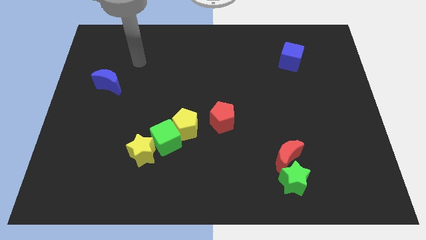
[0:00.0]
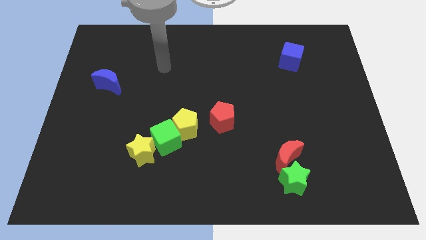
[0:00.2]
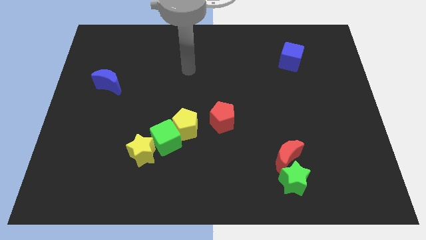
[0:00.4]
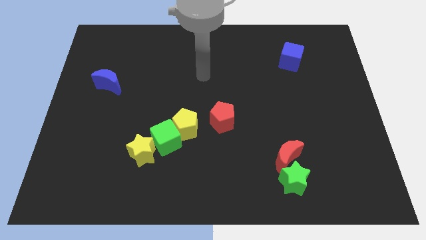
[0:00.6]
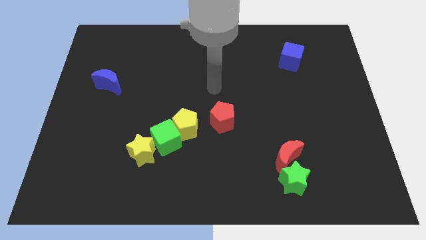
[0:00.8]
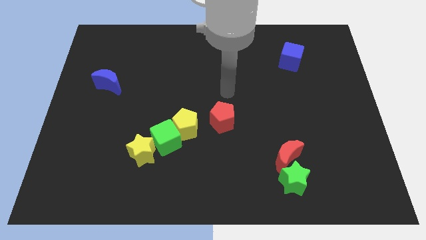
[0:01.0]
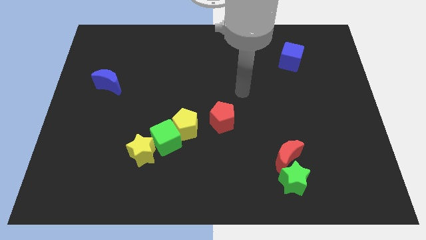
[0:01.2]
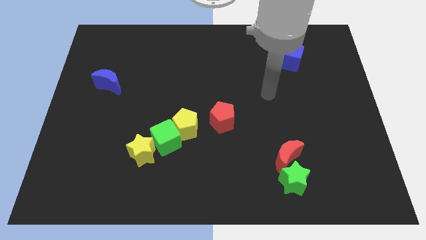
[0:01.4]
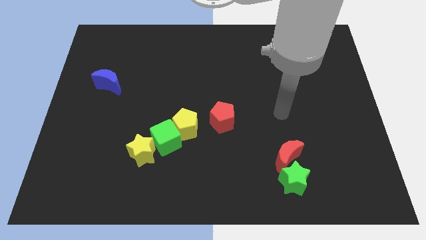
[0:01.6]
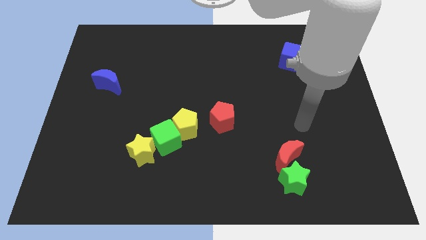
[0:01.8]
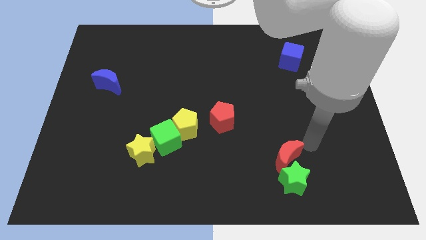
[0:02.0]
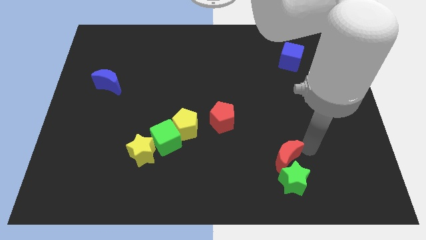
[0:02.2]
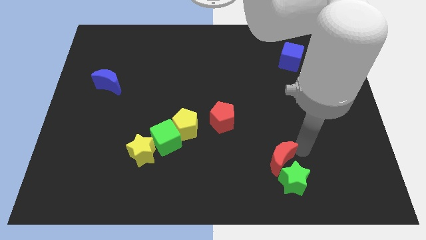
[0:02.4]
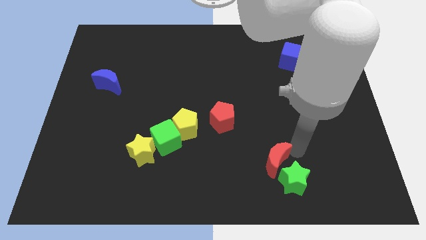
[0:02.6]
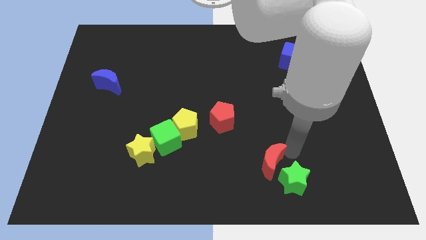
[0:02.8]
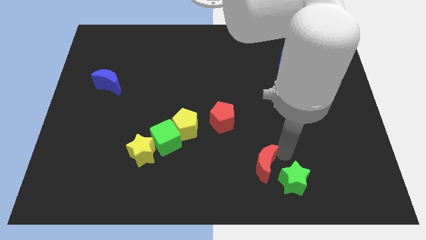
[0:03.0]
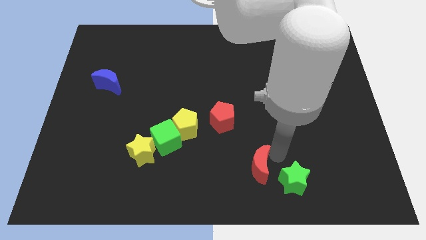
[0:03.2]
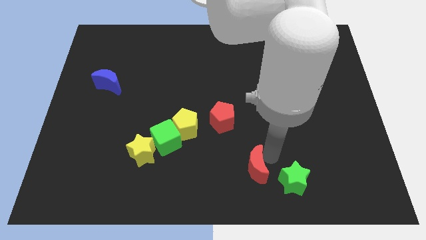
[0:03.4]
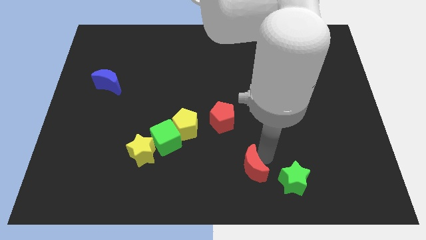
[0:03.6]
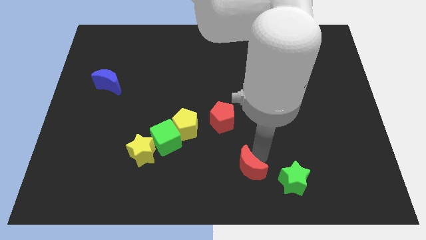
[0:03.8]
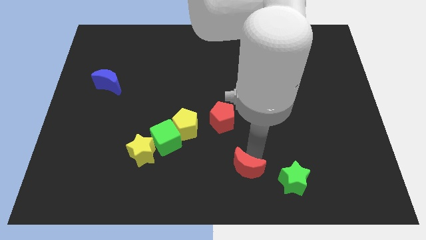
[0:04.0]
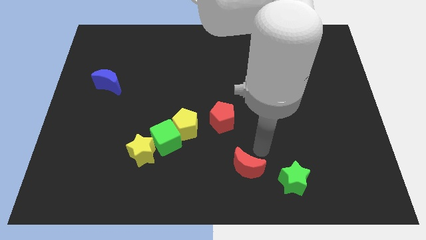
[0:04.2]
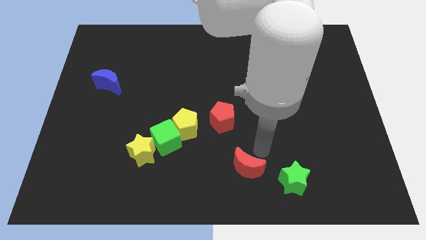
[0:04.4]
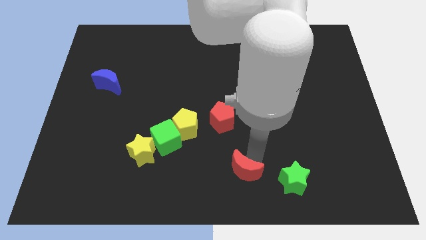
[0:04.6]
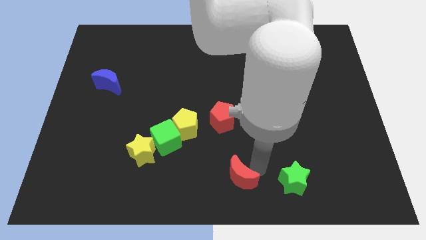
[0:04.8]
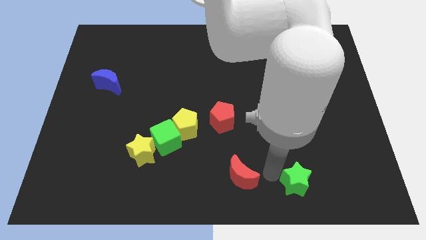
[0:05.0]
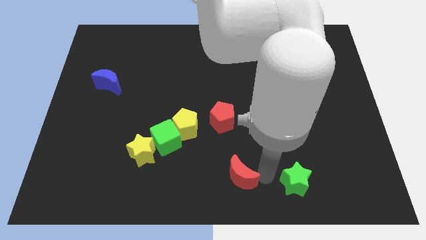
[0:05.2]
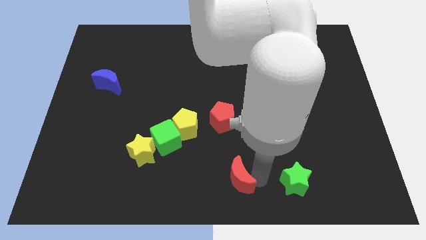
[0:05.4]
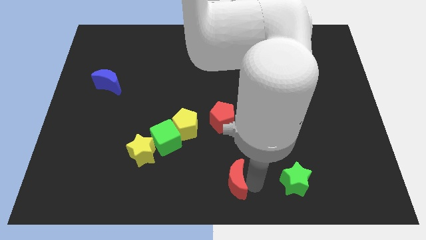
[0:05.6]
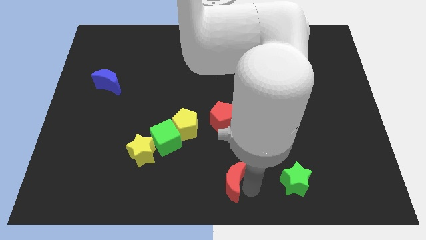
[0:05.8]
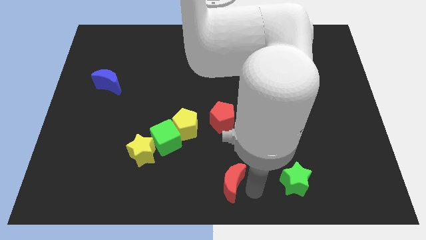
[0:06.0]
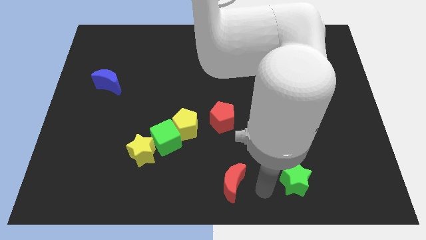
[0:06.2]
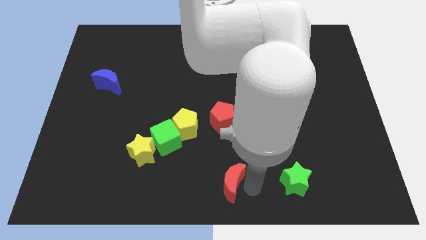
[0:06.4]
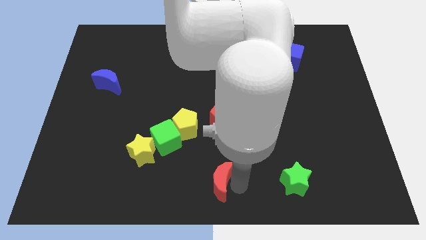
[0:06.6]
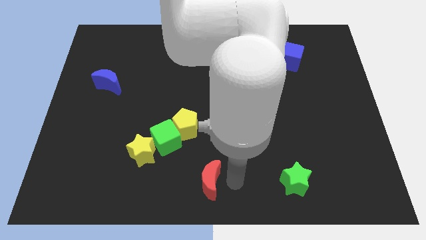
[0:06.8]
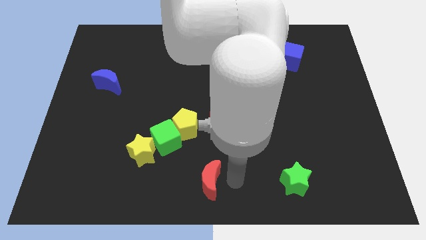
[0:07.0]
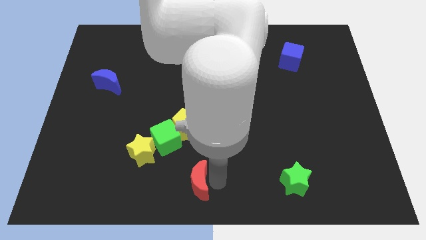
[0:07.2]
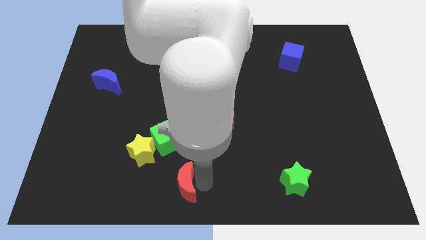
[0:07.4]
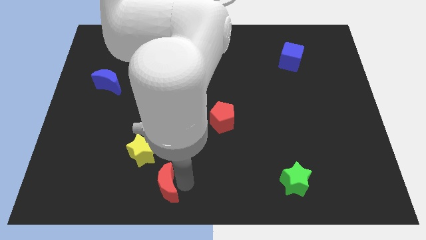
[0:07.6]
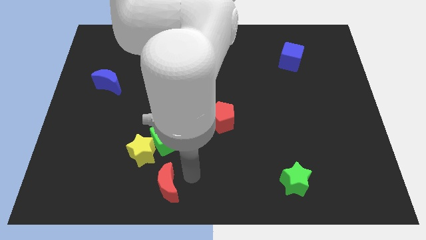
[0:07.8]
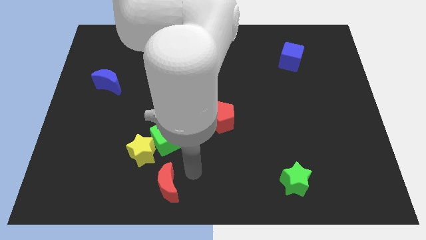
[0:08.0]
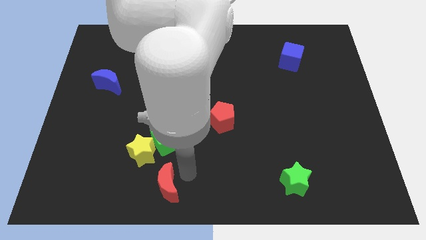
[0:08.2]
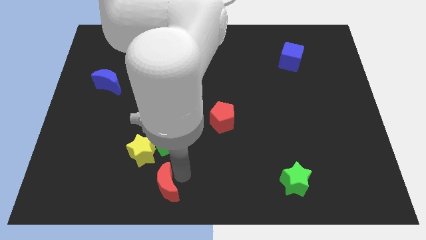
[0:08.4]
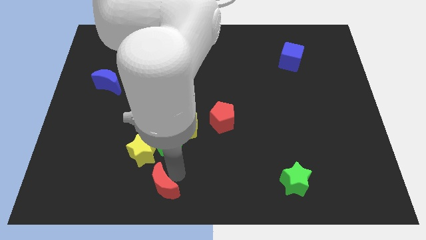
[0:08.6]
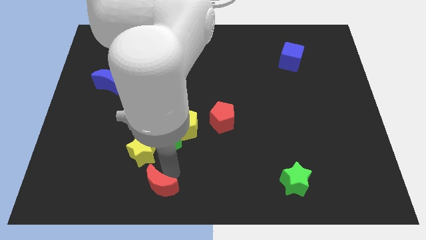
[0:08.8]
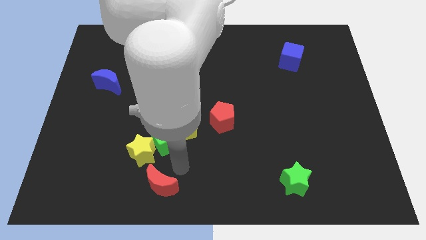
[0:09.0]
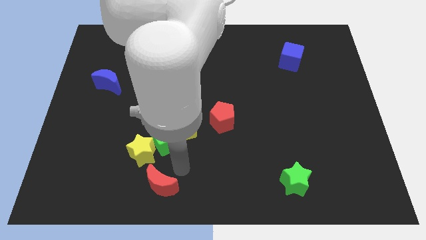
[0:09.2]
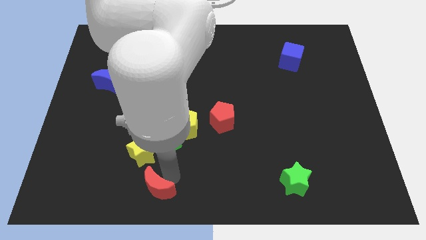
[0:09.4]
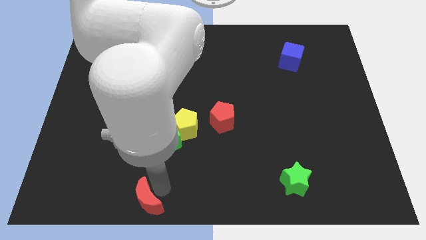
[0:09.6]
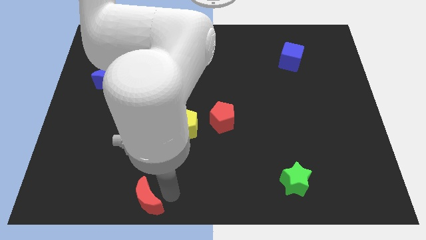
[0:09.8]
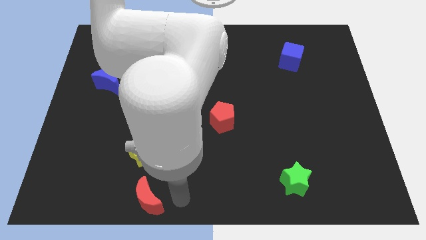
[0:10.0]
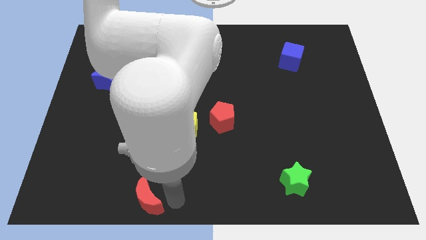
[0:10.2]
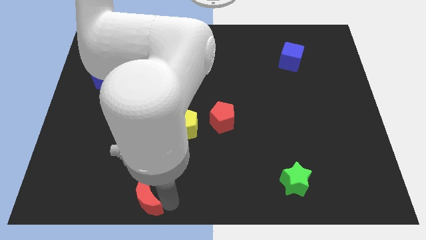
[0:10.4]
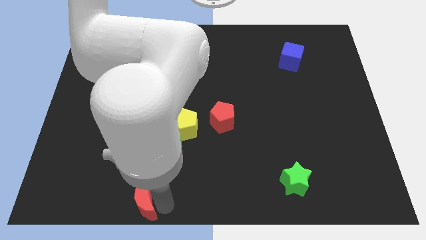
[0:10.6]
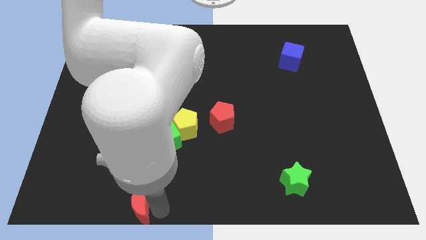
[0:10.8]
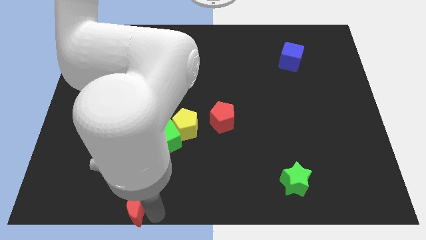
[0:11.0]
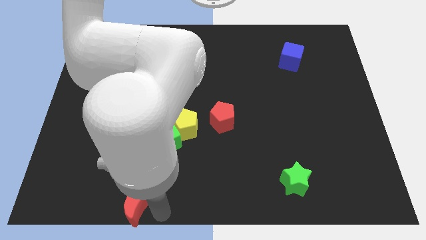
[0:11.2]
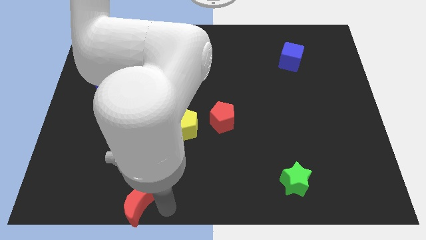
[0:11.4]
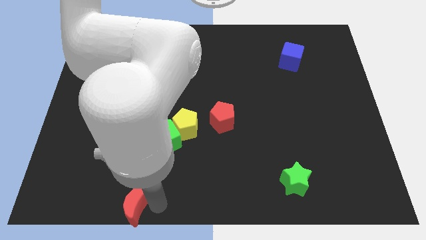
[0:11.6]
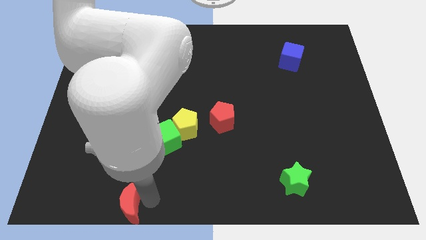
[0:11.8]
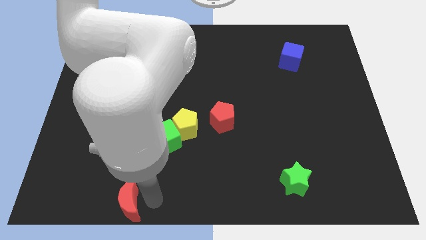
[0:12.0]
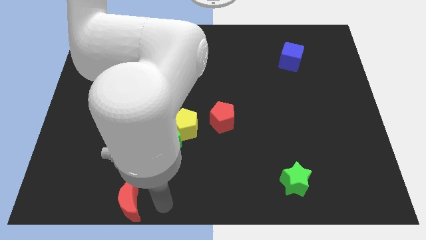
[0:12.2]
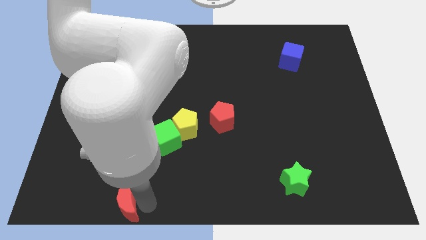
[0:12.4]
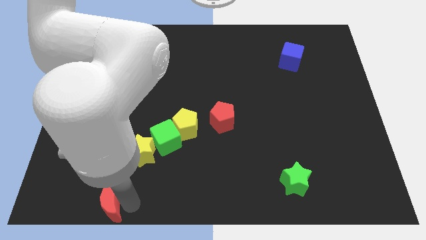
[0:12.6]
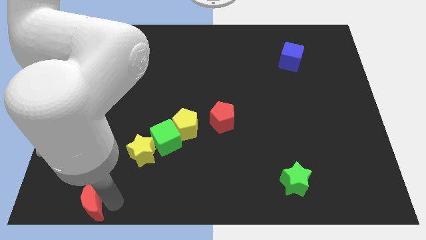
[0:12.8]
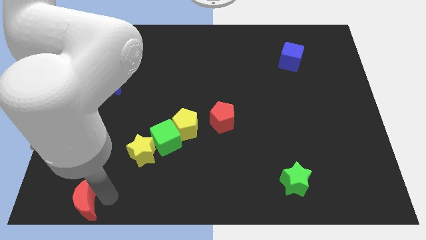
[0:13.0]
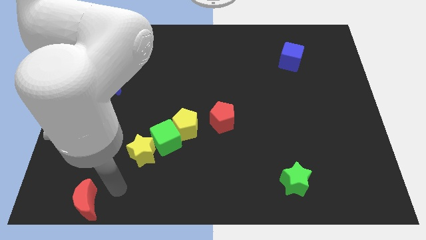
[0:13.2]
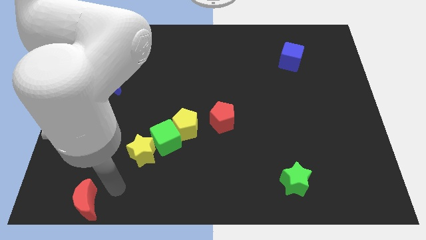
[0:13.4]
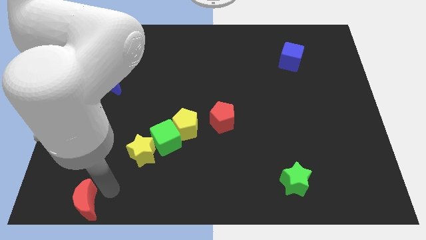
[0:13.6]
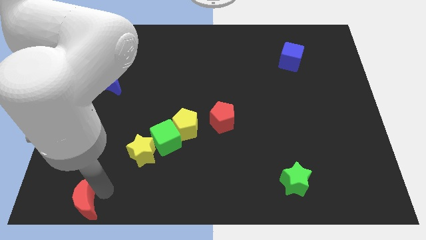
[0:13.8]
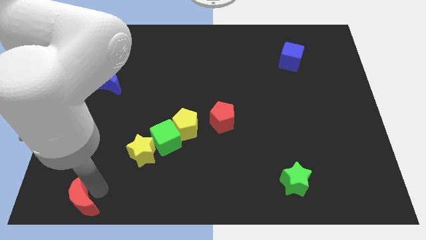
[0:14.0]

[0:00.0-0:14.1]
move the red moon to the bottom left of the board

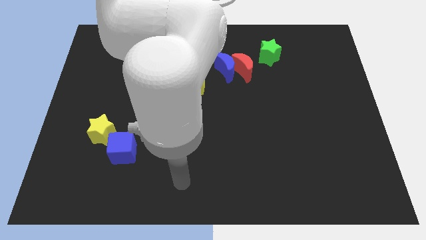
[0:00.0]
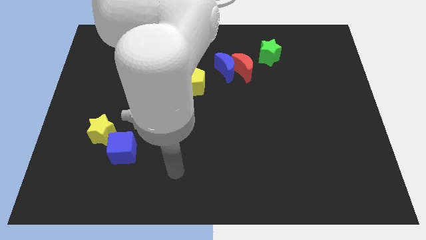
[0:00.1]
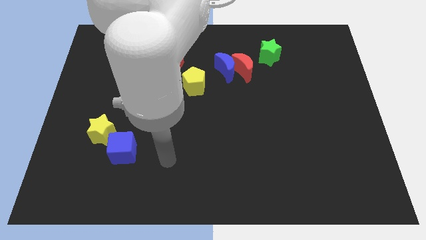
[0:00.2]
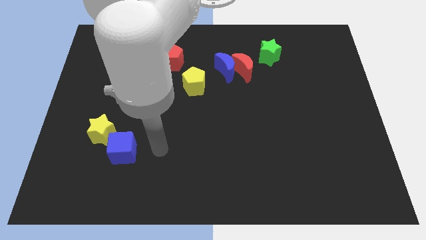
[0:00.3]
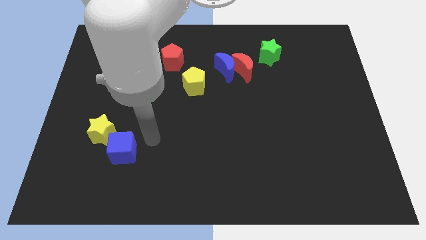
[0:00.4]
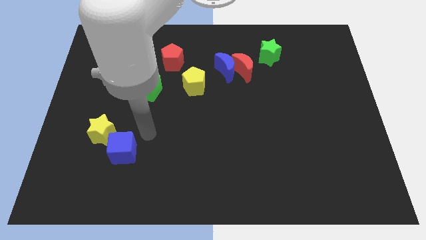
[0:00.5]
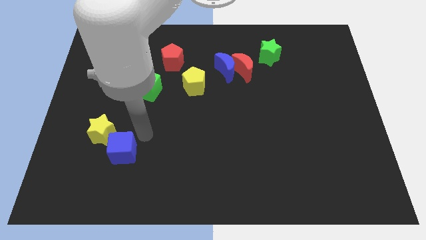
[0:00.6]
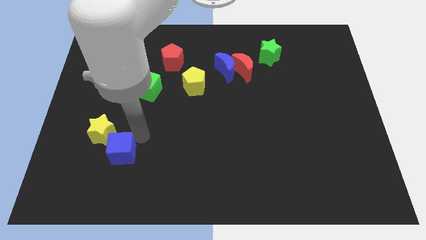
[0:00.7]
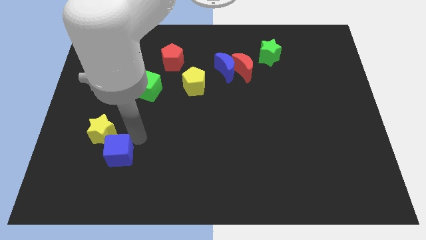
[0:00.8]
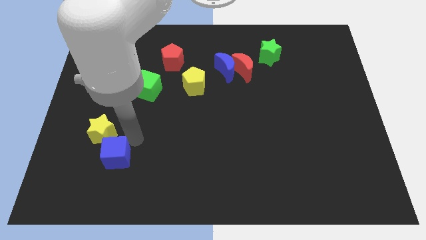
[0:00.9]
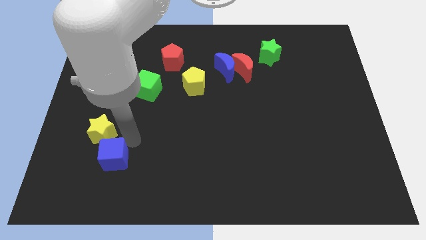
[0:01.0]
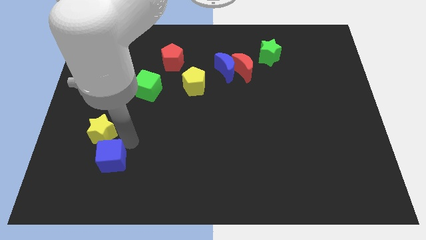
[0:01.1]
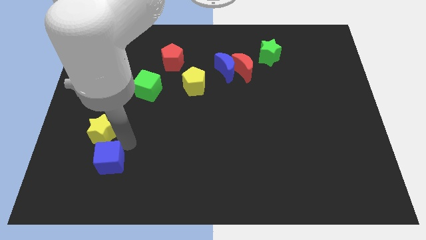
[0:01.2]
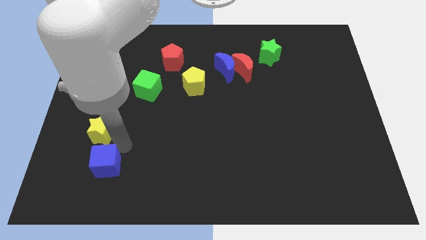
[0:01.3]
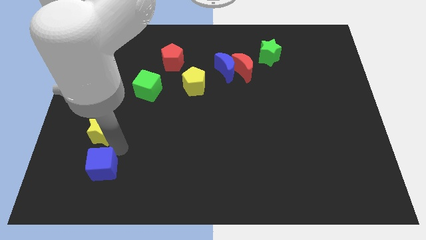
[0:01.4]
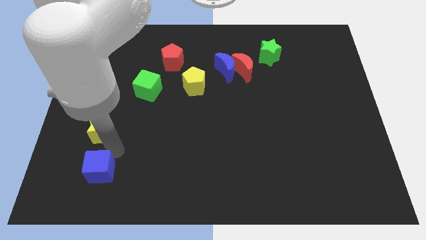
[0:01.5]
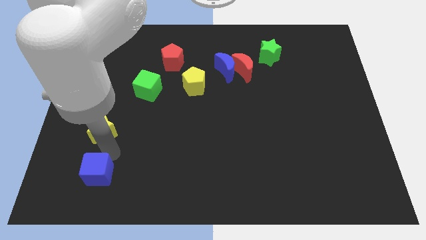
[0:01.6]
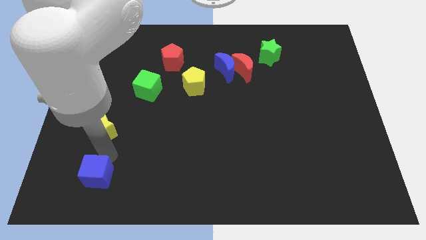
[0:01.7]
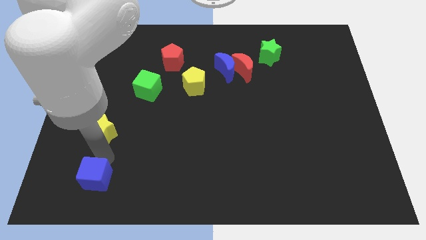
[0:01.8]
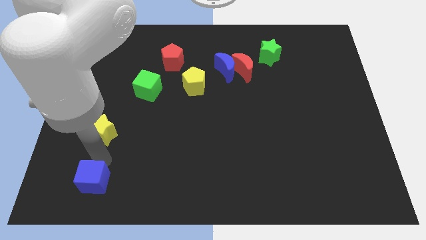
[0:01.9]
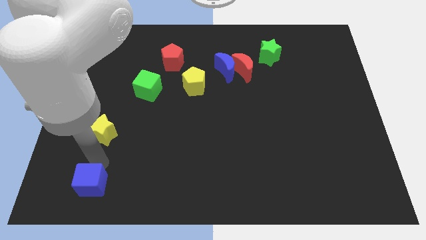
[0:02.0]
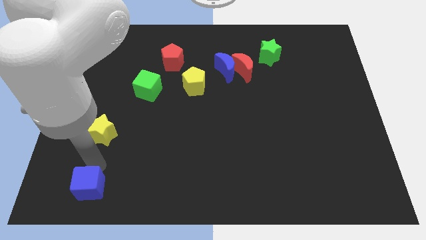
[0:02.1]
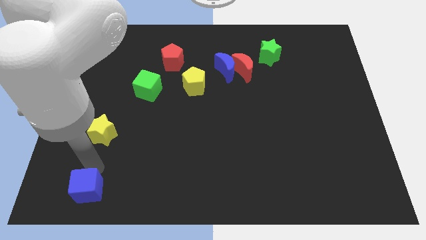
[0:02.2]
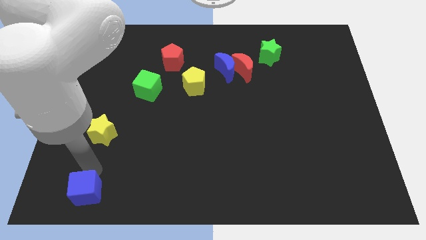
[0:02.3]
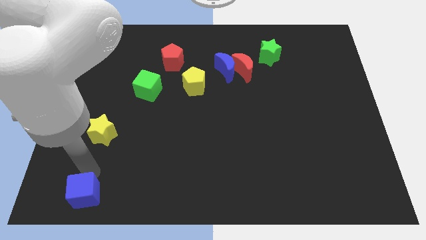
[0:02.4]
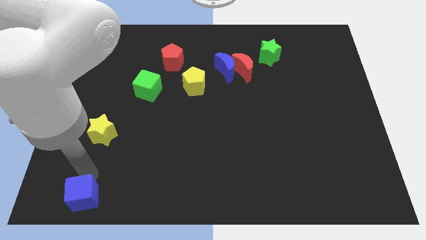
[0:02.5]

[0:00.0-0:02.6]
slide the blue cube to the lower left corner
